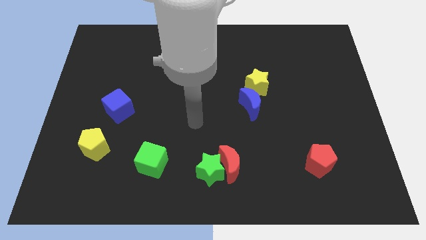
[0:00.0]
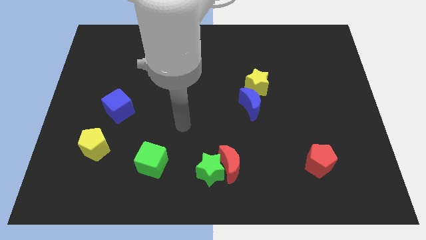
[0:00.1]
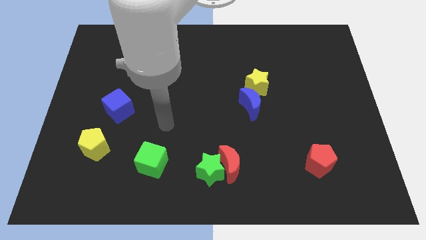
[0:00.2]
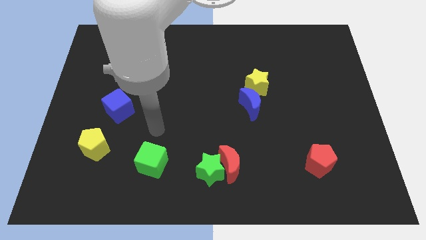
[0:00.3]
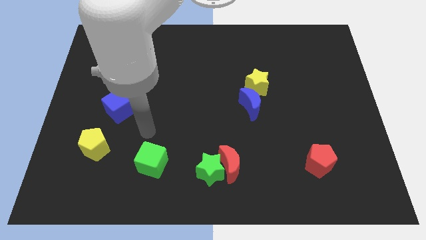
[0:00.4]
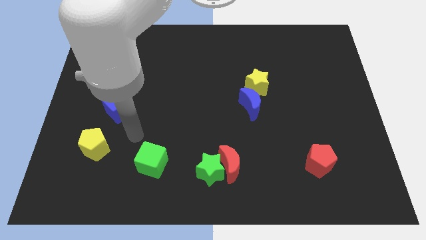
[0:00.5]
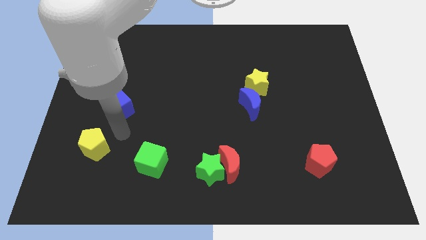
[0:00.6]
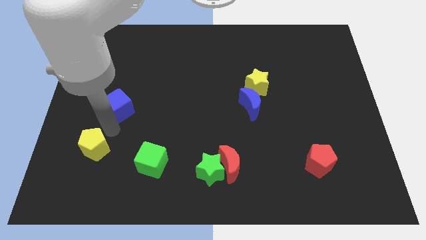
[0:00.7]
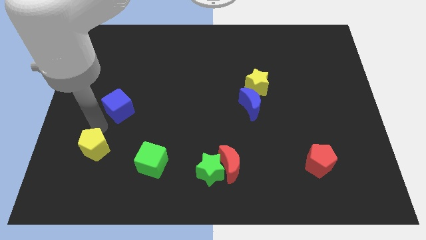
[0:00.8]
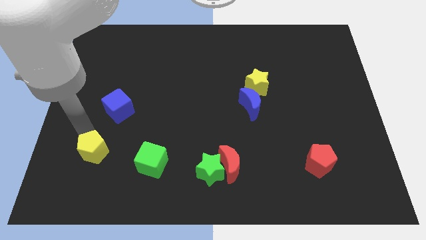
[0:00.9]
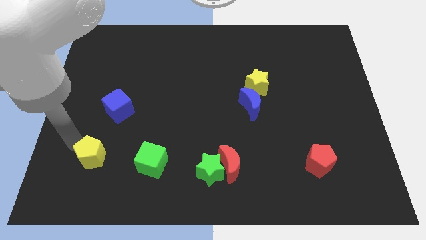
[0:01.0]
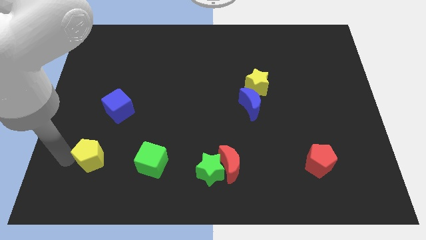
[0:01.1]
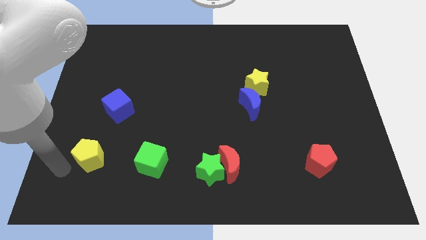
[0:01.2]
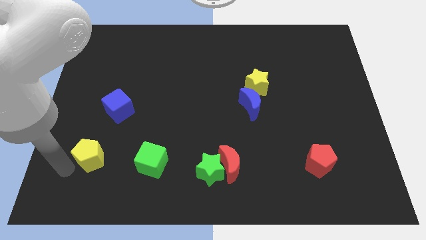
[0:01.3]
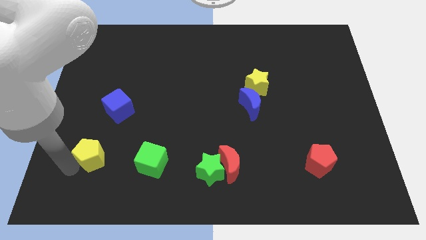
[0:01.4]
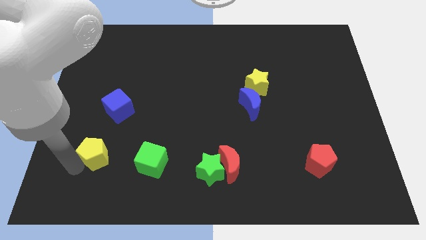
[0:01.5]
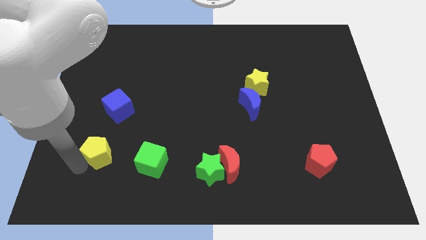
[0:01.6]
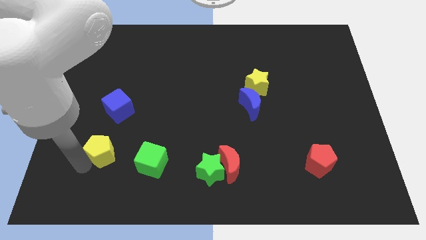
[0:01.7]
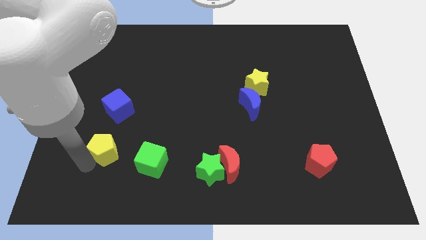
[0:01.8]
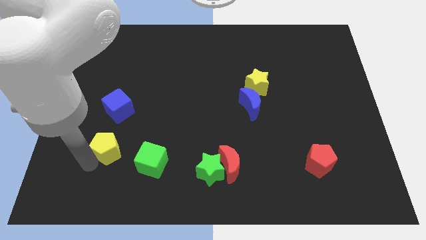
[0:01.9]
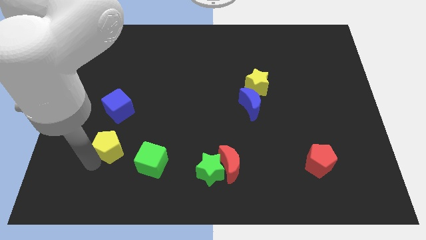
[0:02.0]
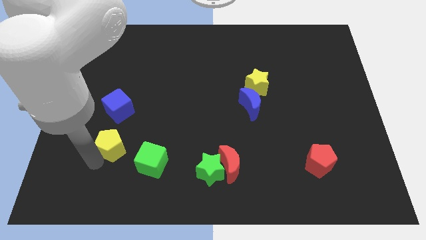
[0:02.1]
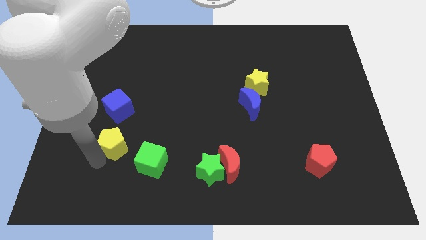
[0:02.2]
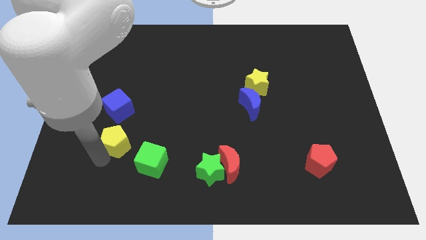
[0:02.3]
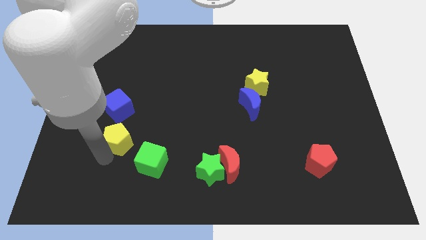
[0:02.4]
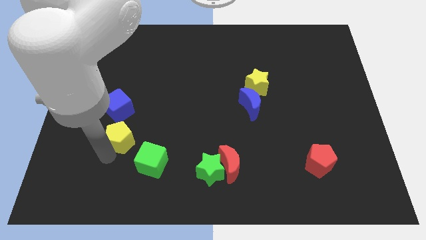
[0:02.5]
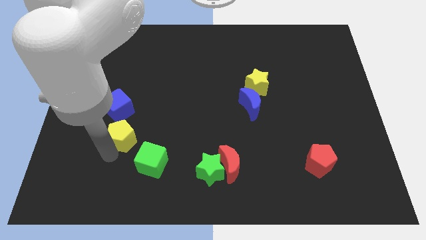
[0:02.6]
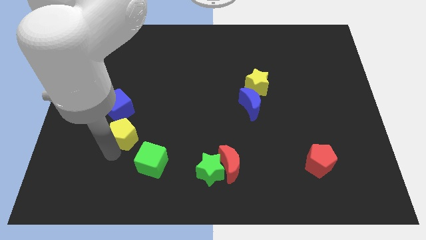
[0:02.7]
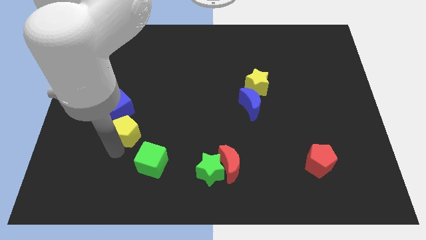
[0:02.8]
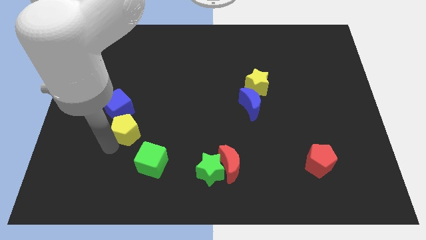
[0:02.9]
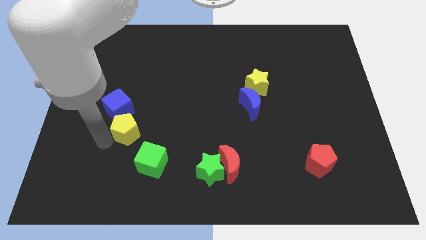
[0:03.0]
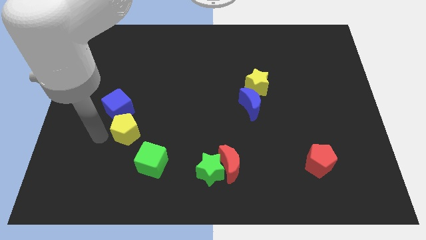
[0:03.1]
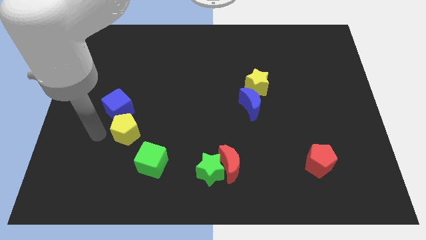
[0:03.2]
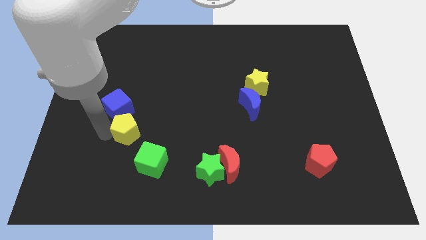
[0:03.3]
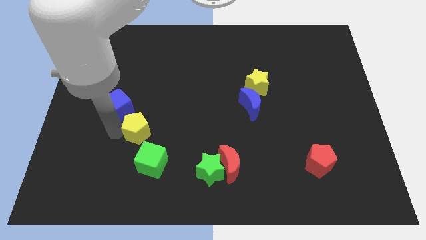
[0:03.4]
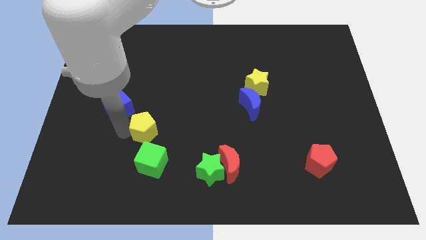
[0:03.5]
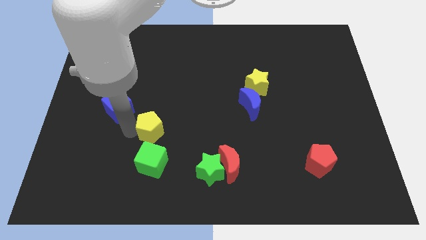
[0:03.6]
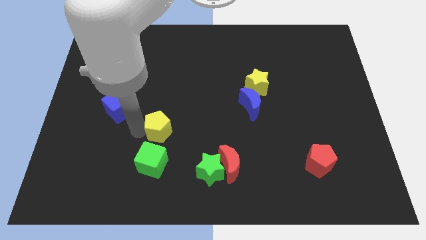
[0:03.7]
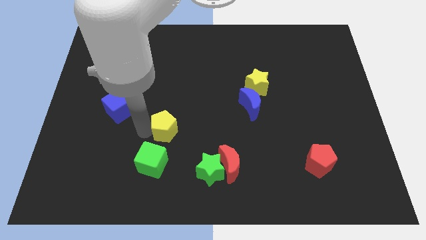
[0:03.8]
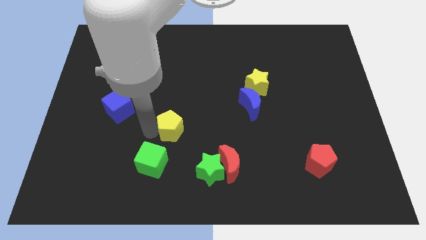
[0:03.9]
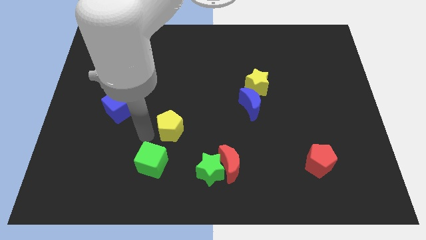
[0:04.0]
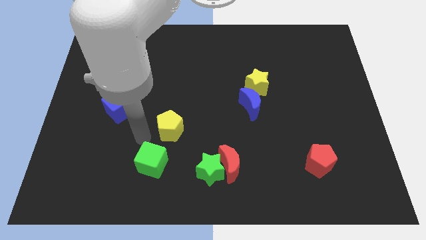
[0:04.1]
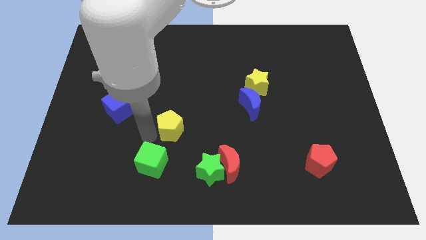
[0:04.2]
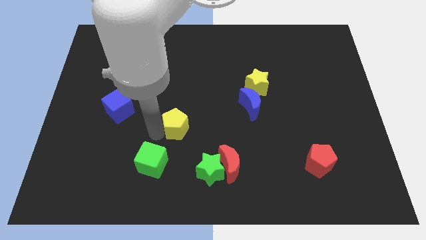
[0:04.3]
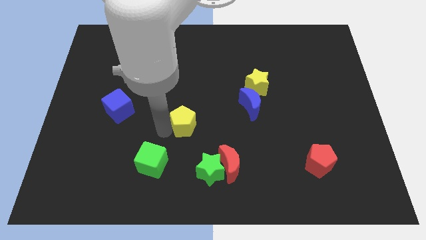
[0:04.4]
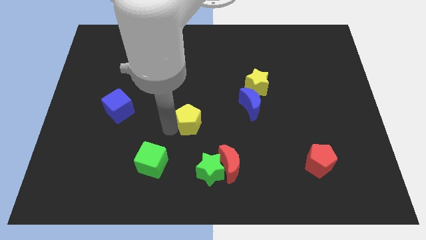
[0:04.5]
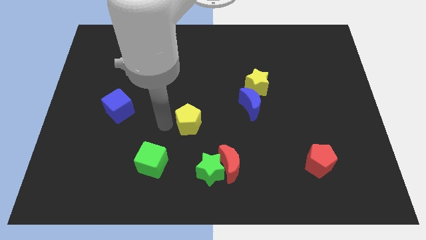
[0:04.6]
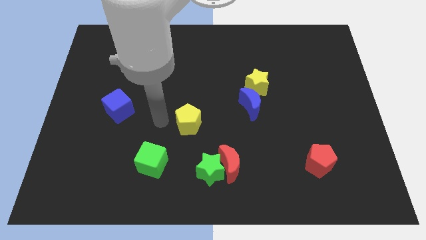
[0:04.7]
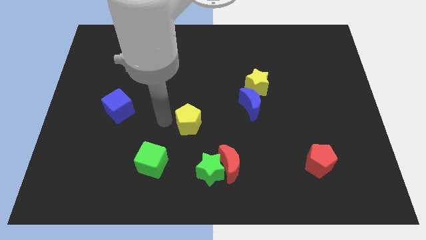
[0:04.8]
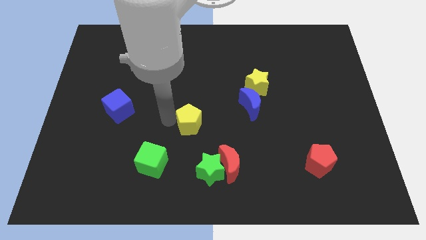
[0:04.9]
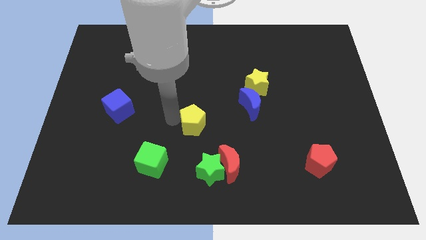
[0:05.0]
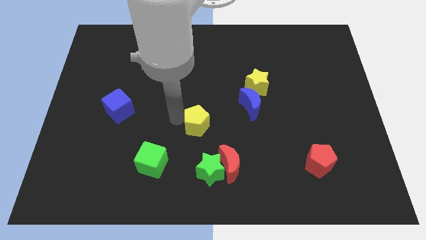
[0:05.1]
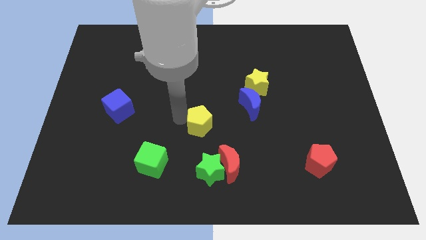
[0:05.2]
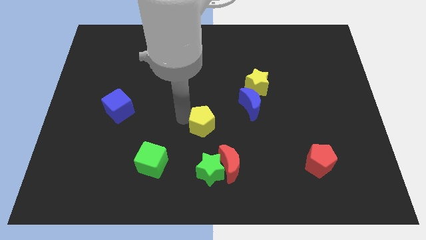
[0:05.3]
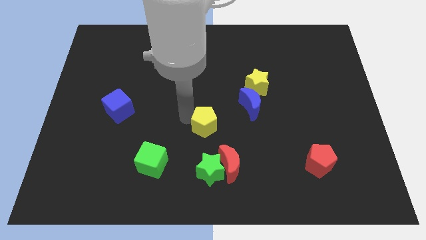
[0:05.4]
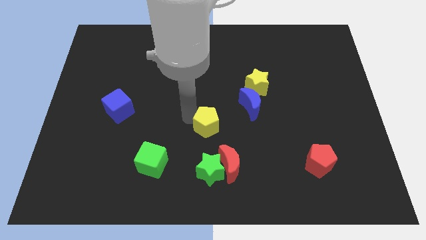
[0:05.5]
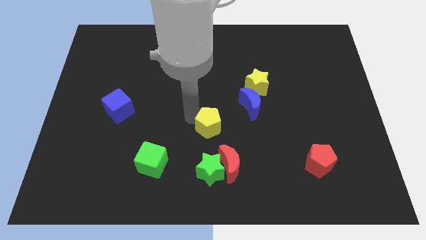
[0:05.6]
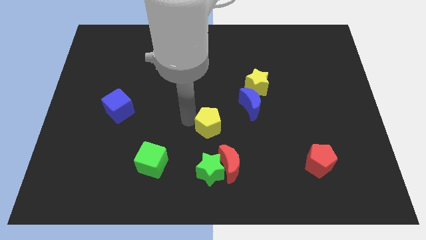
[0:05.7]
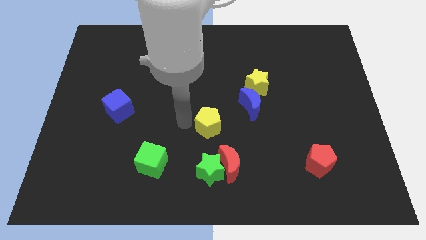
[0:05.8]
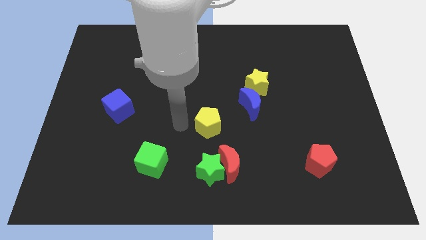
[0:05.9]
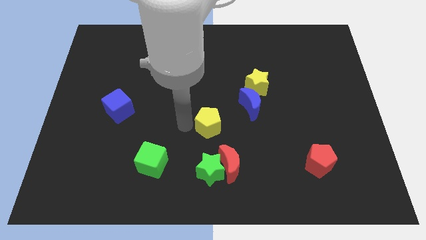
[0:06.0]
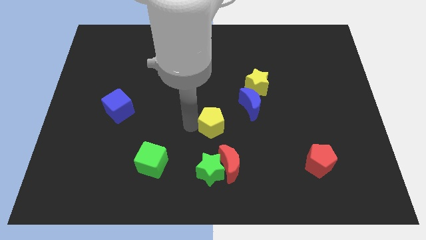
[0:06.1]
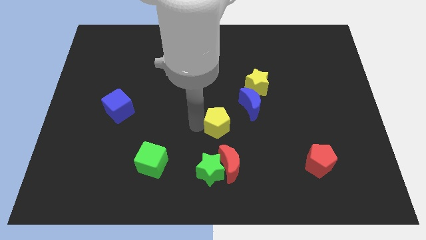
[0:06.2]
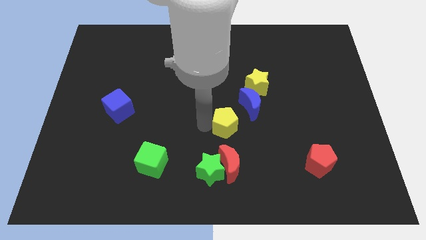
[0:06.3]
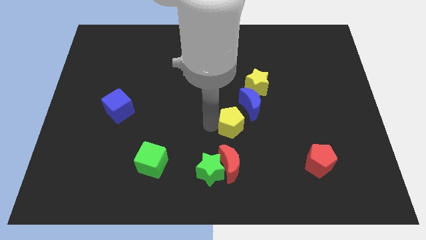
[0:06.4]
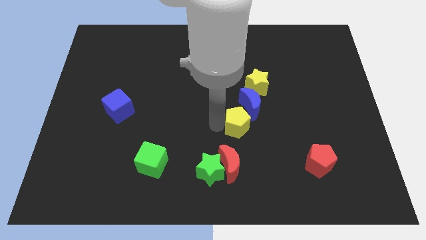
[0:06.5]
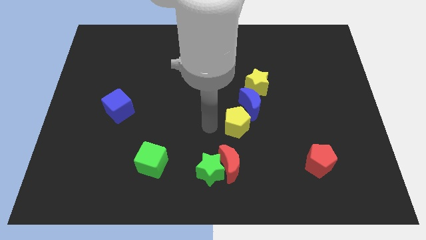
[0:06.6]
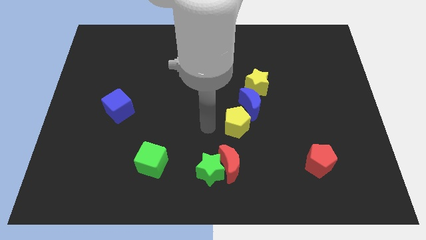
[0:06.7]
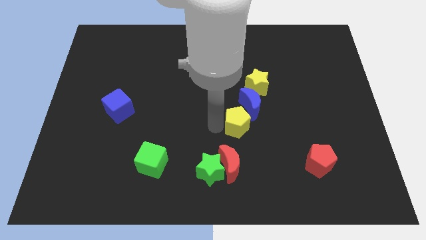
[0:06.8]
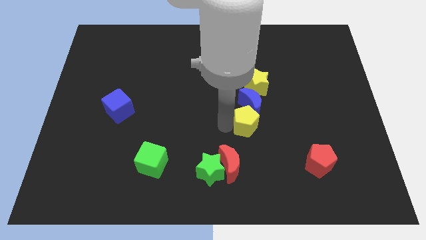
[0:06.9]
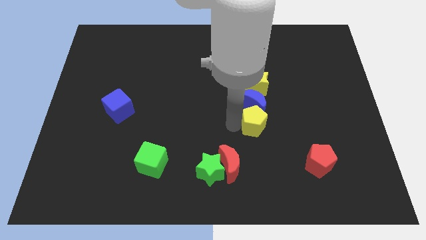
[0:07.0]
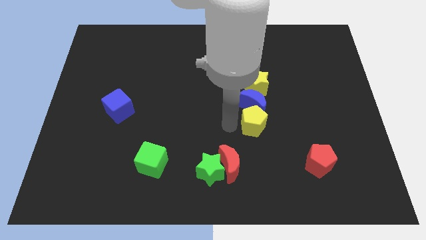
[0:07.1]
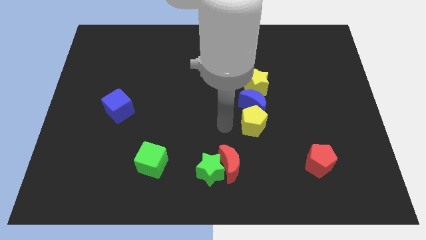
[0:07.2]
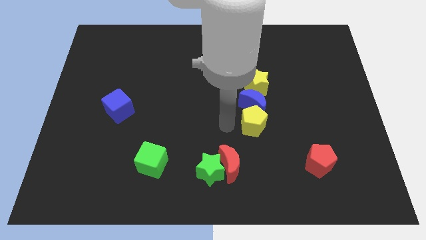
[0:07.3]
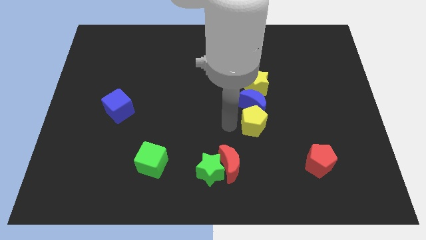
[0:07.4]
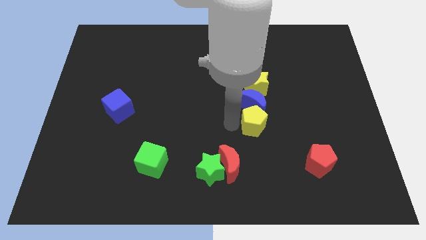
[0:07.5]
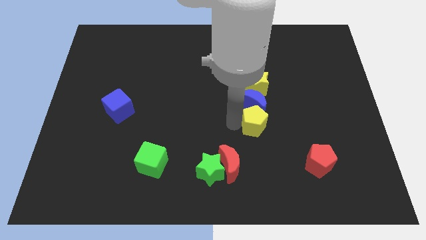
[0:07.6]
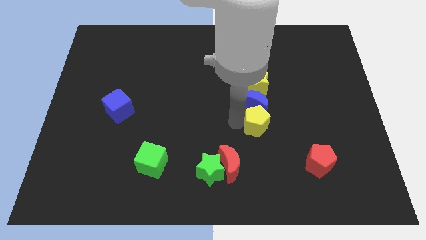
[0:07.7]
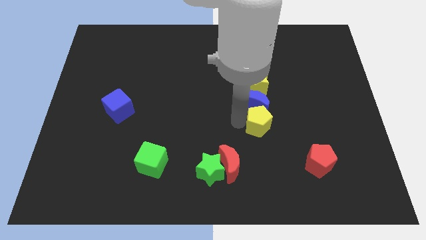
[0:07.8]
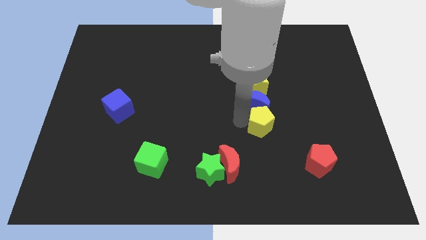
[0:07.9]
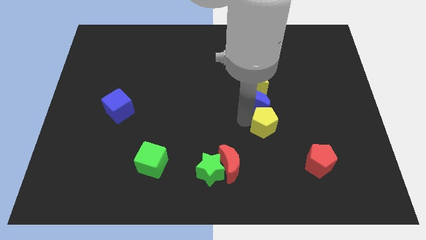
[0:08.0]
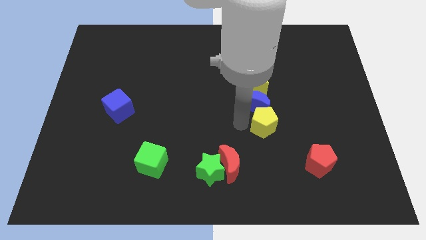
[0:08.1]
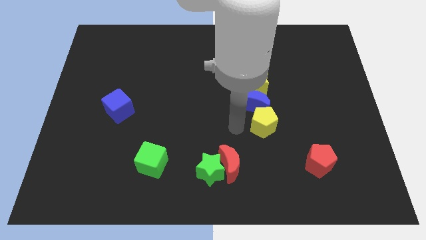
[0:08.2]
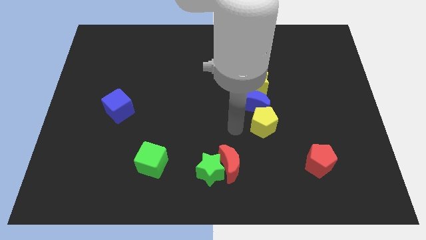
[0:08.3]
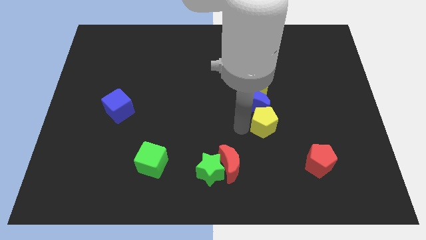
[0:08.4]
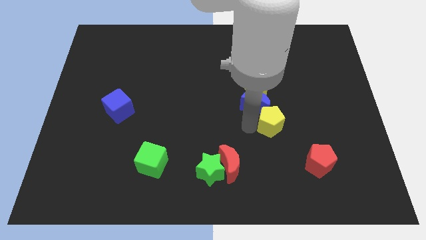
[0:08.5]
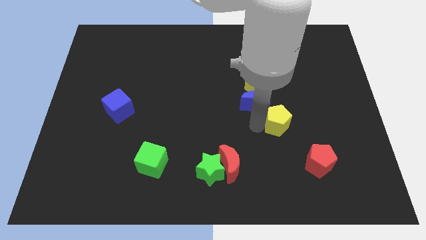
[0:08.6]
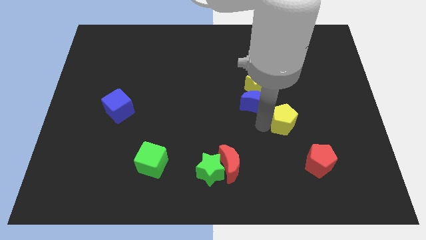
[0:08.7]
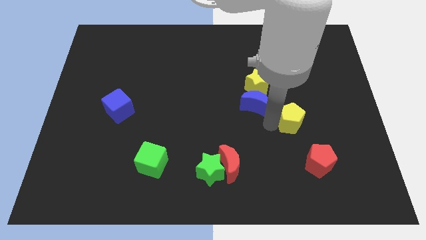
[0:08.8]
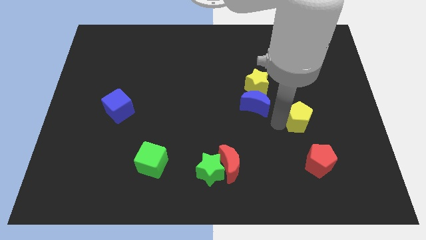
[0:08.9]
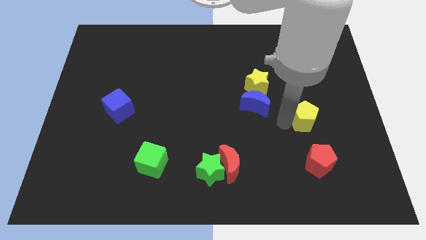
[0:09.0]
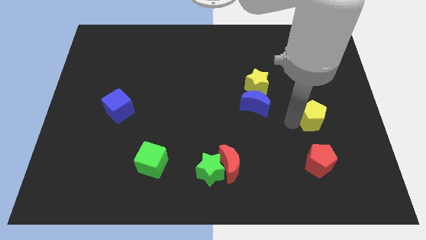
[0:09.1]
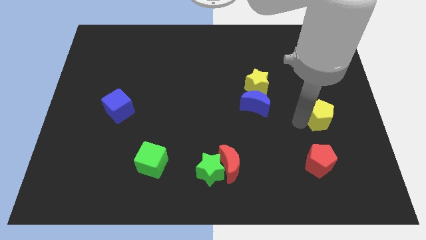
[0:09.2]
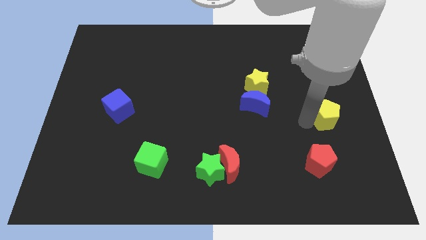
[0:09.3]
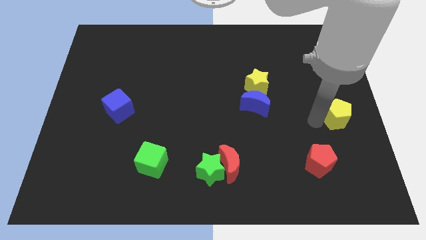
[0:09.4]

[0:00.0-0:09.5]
push the yellow pentagon to the right side of the board
